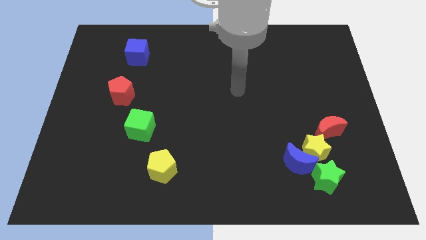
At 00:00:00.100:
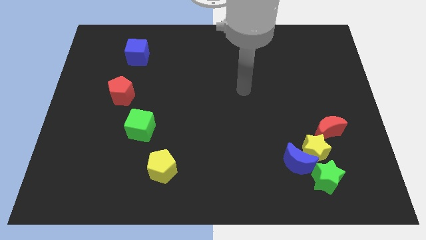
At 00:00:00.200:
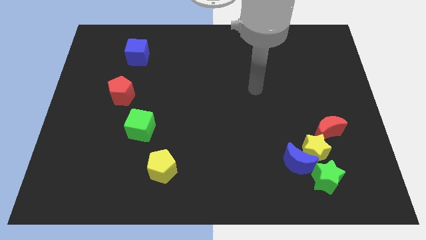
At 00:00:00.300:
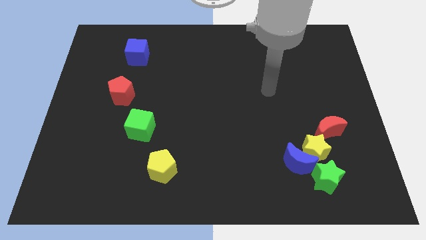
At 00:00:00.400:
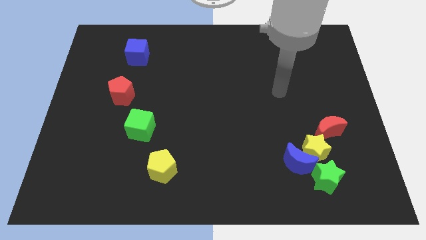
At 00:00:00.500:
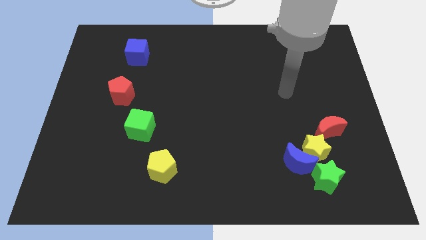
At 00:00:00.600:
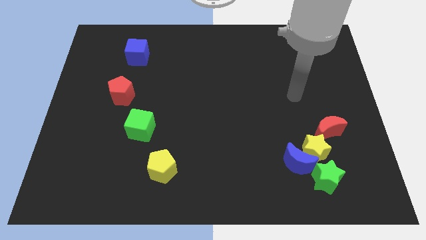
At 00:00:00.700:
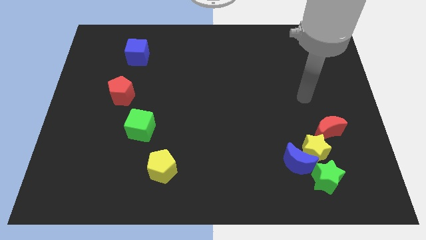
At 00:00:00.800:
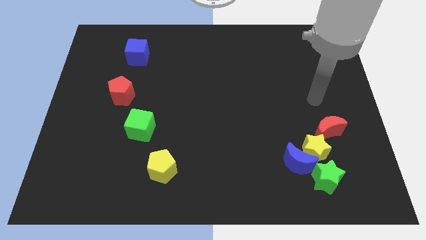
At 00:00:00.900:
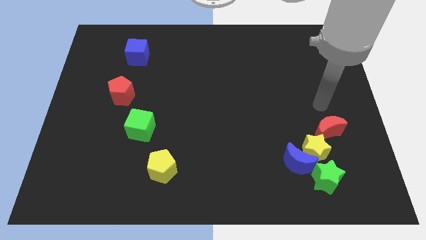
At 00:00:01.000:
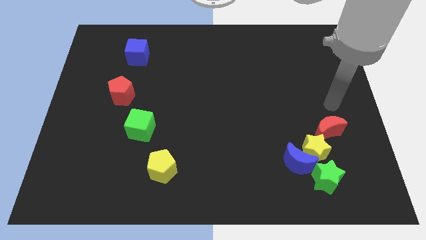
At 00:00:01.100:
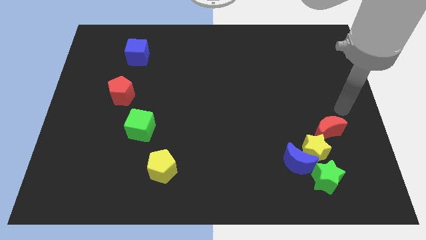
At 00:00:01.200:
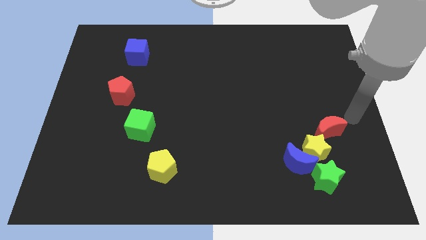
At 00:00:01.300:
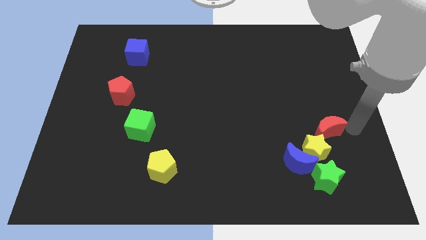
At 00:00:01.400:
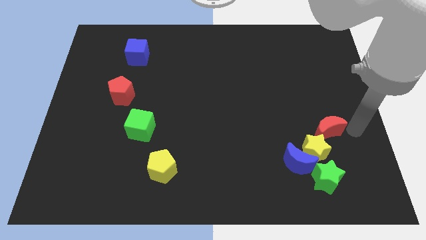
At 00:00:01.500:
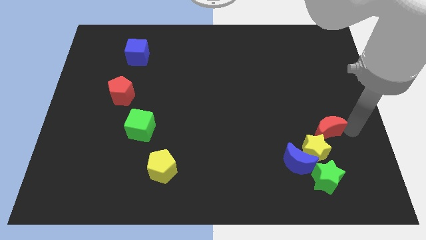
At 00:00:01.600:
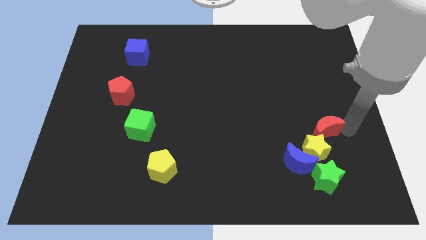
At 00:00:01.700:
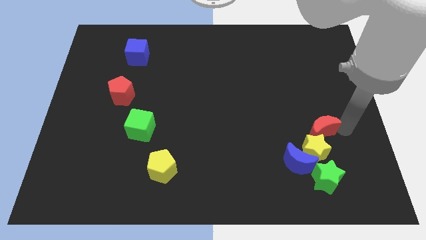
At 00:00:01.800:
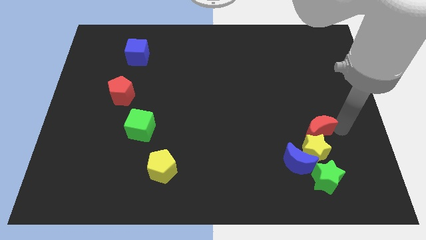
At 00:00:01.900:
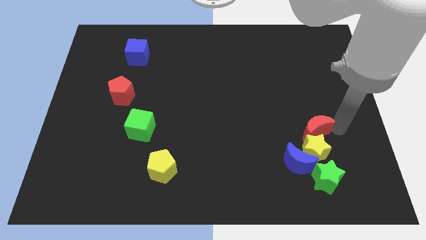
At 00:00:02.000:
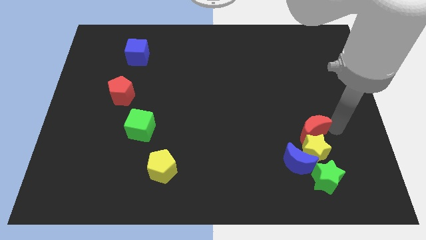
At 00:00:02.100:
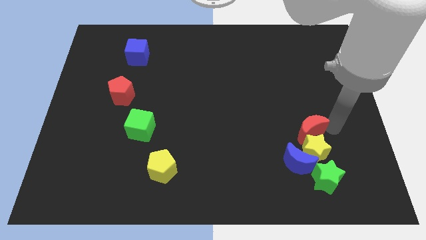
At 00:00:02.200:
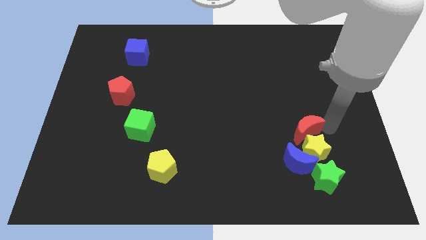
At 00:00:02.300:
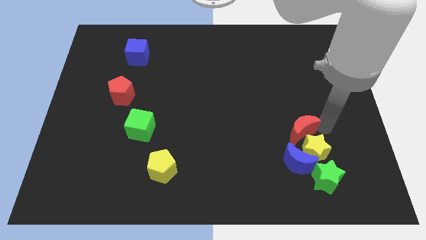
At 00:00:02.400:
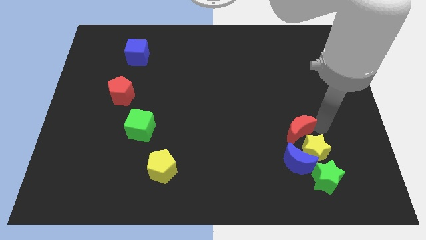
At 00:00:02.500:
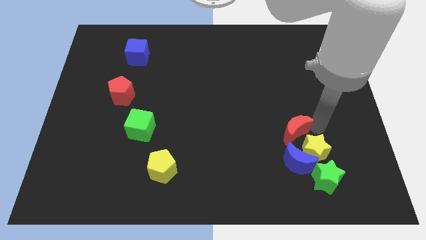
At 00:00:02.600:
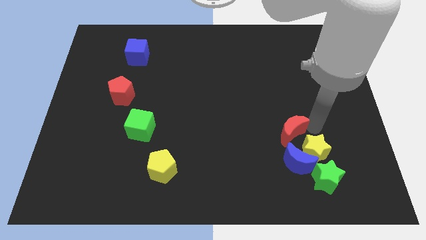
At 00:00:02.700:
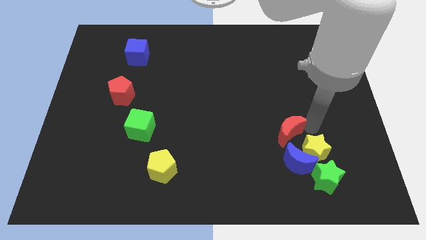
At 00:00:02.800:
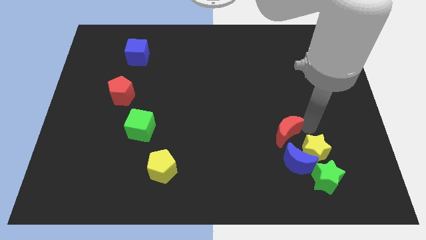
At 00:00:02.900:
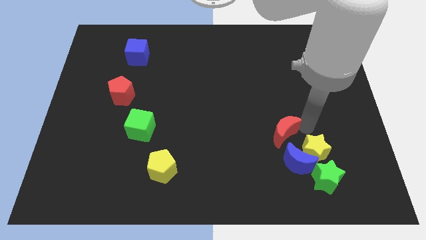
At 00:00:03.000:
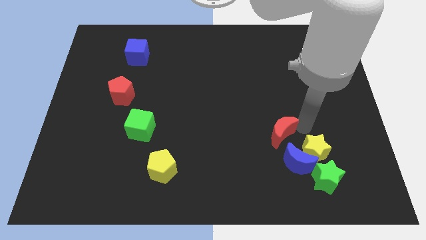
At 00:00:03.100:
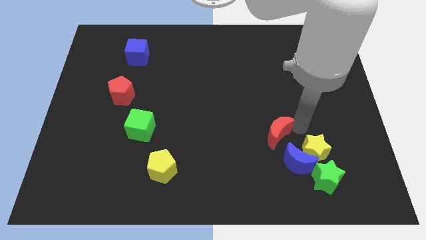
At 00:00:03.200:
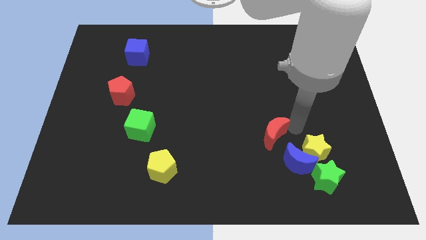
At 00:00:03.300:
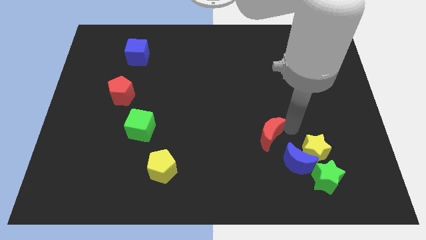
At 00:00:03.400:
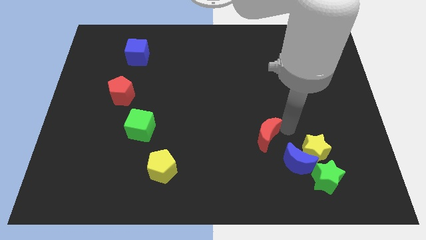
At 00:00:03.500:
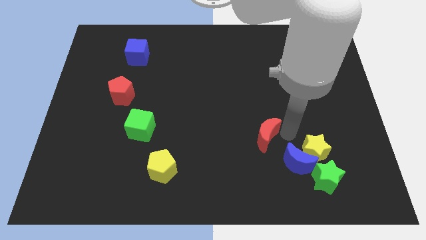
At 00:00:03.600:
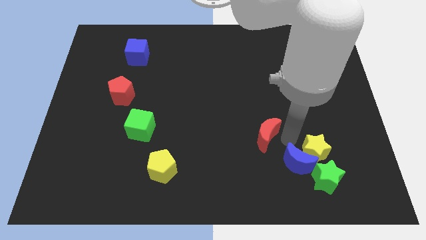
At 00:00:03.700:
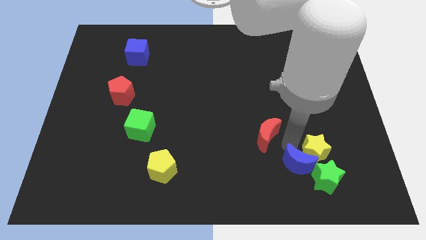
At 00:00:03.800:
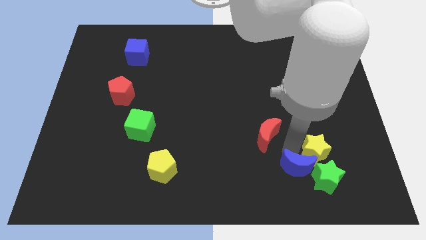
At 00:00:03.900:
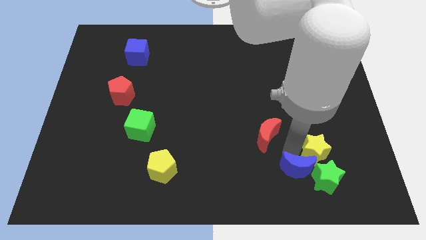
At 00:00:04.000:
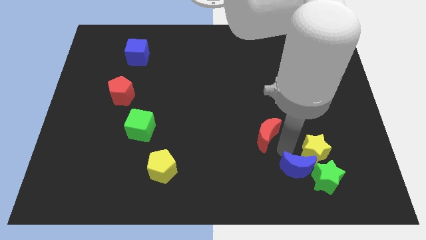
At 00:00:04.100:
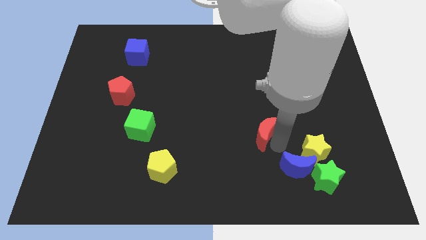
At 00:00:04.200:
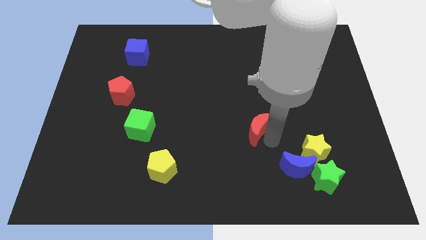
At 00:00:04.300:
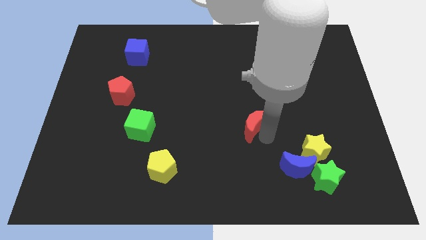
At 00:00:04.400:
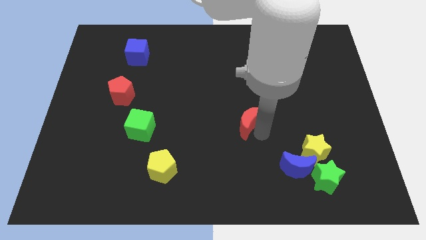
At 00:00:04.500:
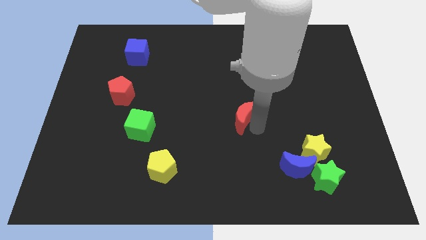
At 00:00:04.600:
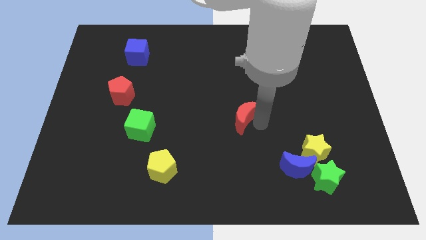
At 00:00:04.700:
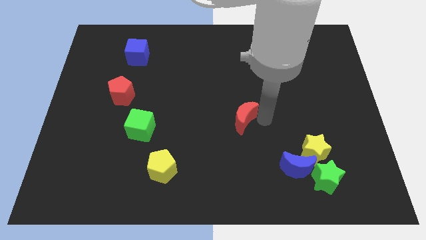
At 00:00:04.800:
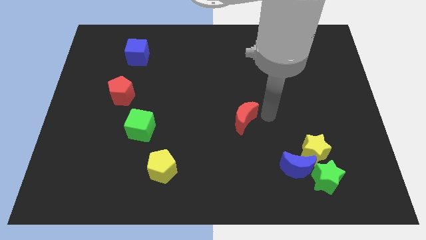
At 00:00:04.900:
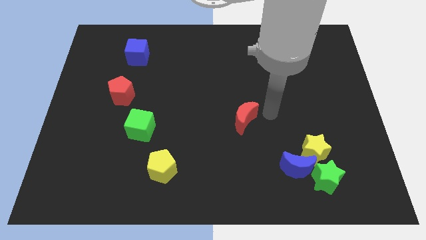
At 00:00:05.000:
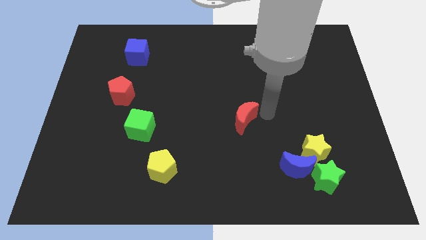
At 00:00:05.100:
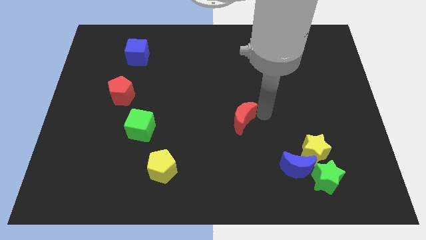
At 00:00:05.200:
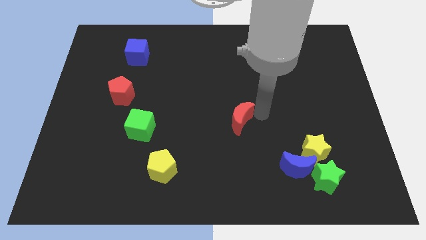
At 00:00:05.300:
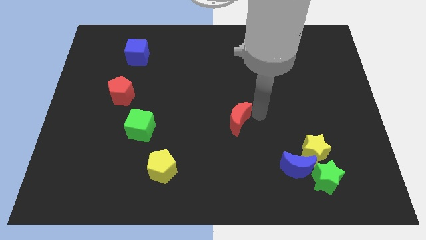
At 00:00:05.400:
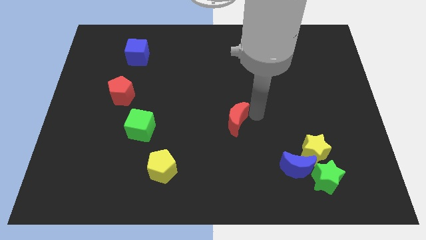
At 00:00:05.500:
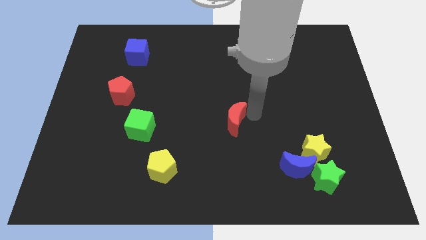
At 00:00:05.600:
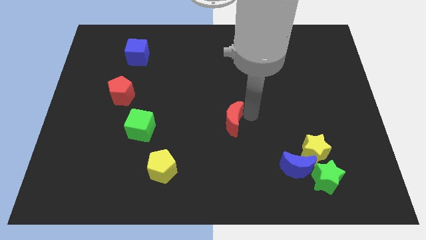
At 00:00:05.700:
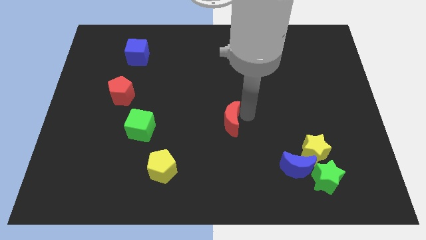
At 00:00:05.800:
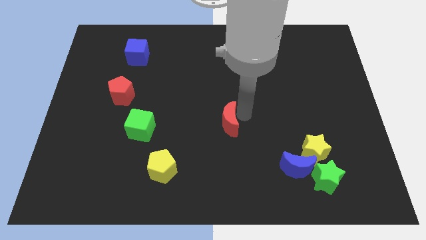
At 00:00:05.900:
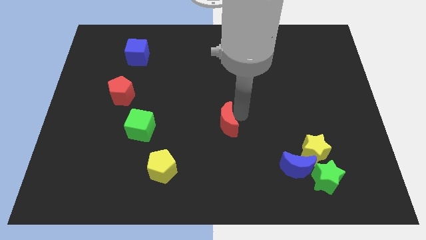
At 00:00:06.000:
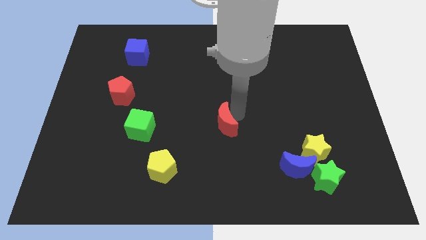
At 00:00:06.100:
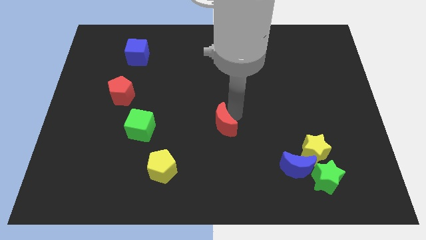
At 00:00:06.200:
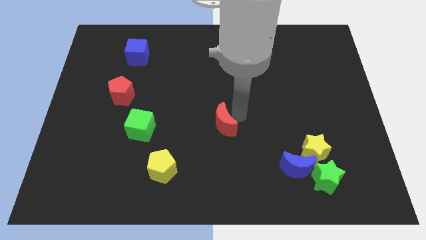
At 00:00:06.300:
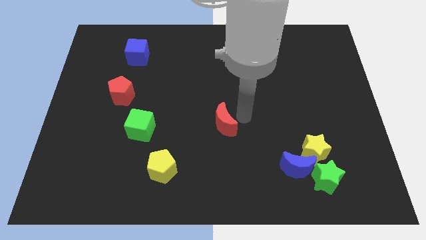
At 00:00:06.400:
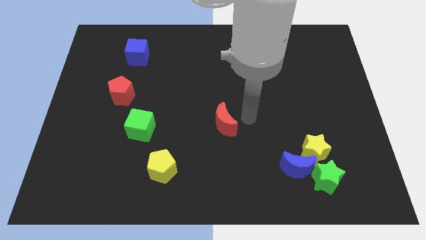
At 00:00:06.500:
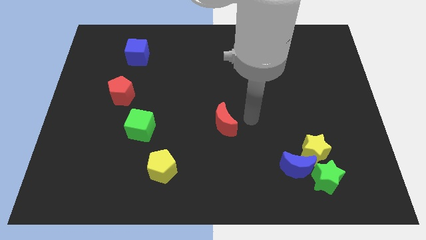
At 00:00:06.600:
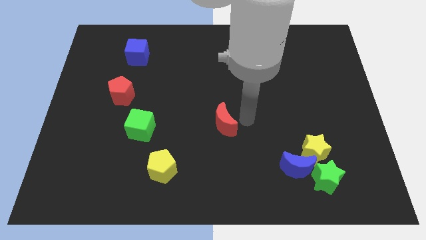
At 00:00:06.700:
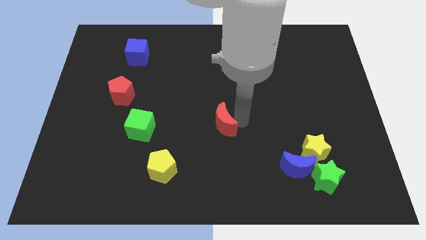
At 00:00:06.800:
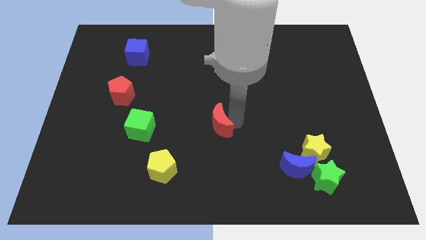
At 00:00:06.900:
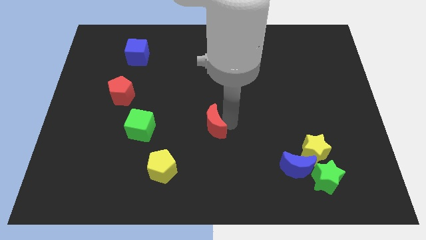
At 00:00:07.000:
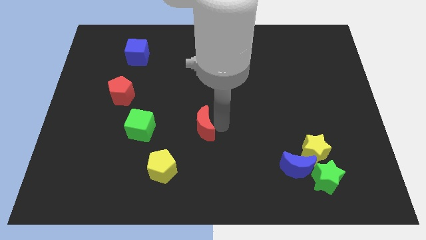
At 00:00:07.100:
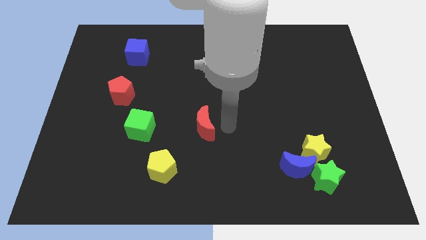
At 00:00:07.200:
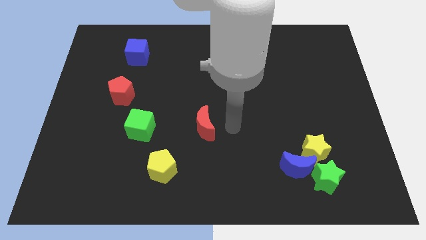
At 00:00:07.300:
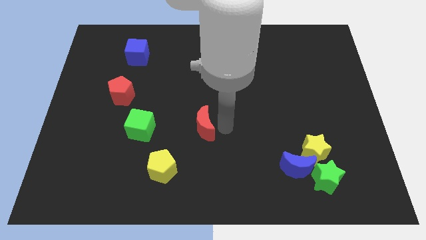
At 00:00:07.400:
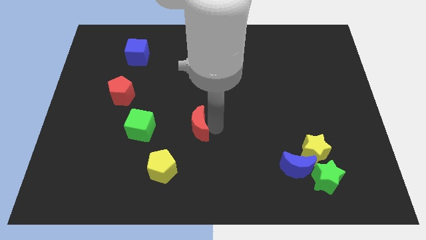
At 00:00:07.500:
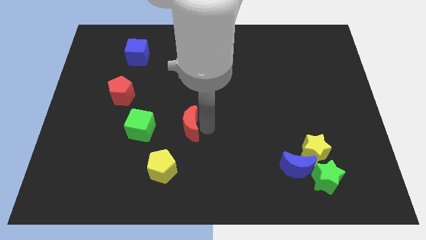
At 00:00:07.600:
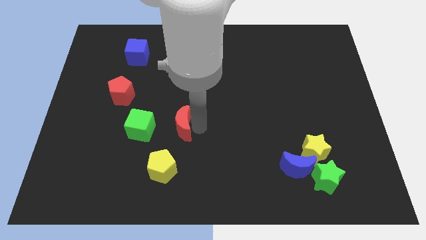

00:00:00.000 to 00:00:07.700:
move the red moon to the top side of the yellow pentagon
